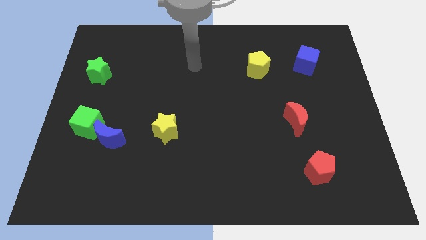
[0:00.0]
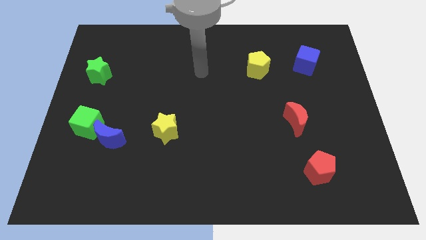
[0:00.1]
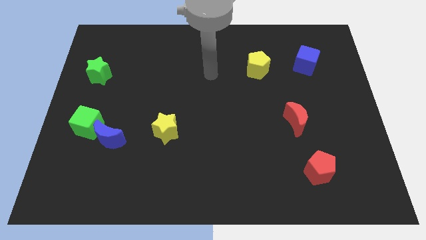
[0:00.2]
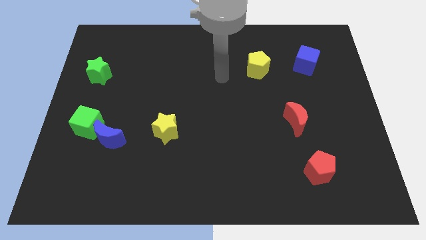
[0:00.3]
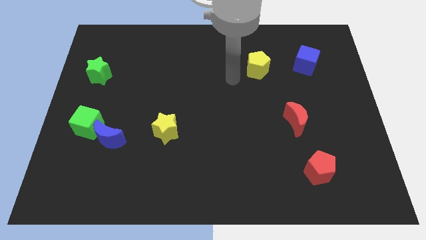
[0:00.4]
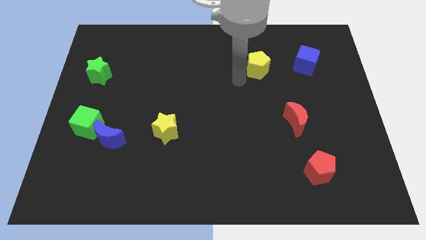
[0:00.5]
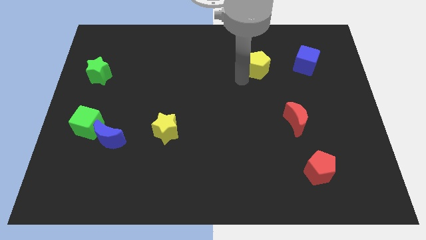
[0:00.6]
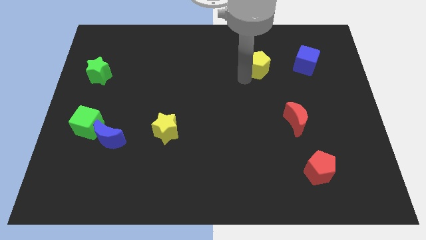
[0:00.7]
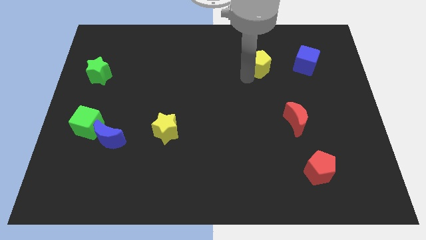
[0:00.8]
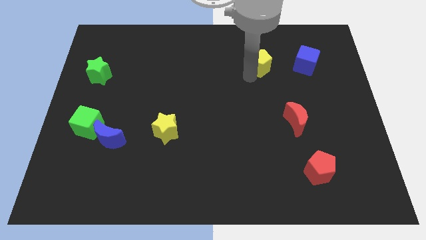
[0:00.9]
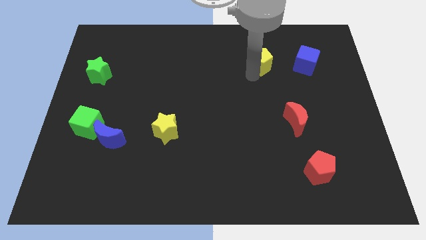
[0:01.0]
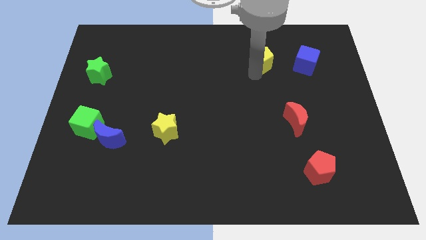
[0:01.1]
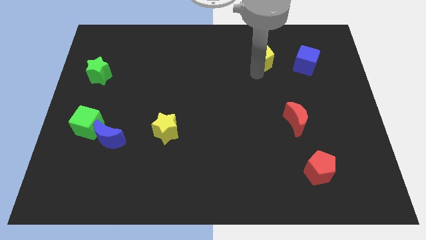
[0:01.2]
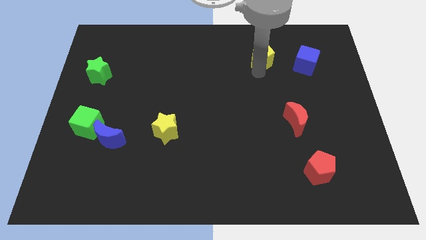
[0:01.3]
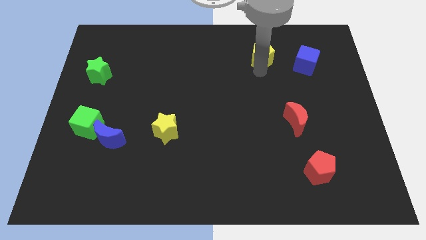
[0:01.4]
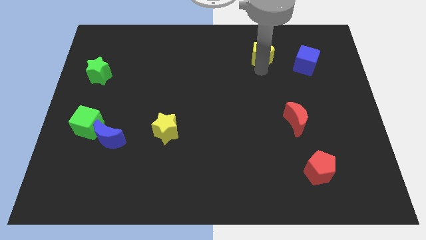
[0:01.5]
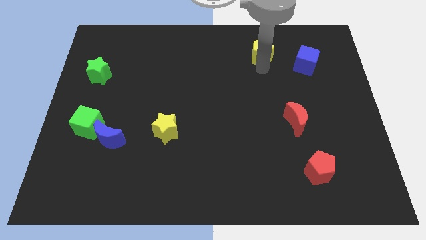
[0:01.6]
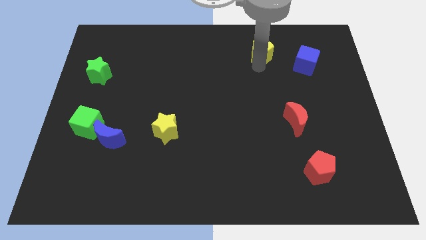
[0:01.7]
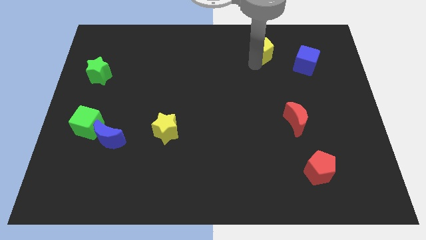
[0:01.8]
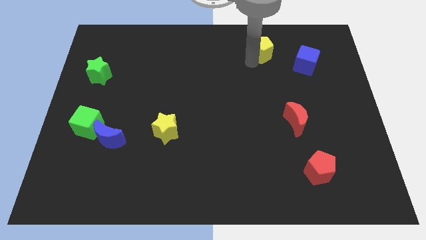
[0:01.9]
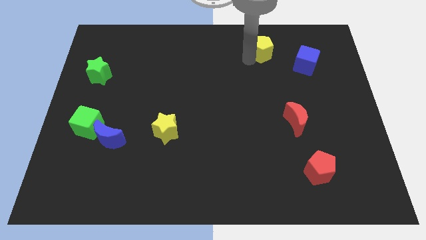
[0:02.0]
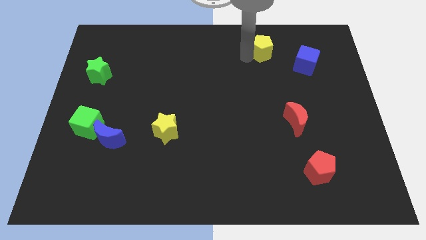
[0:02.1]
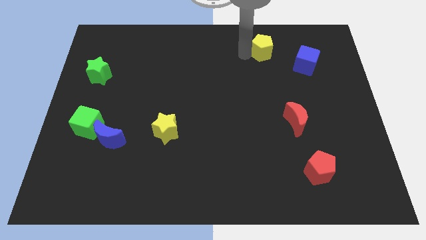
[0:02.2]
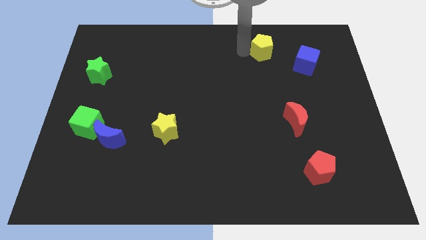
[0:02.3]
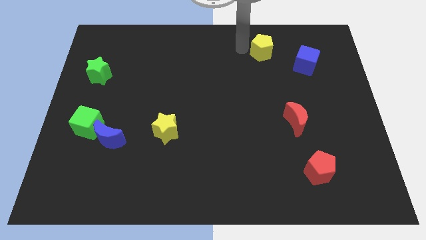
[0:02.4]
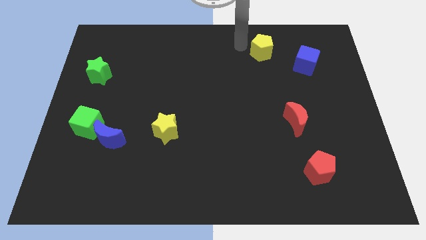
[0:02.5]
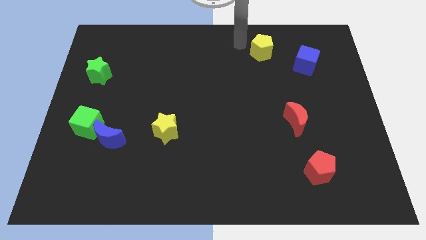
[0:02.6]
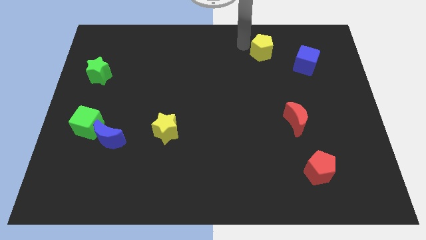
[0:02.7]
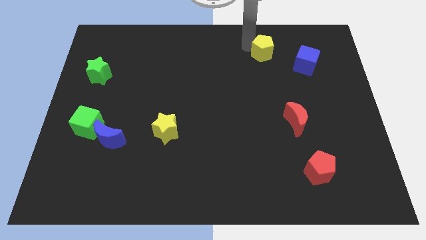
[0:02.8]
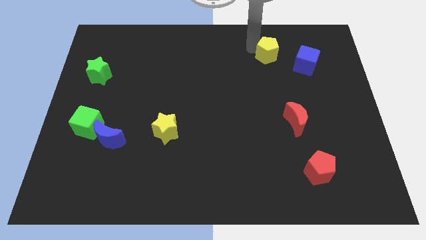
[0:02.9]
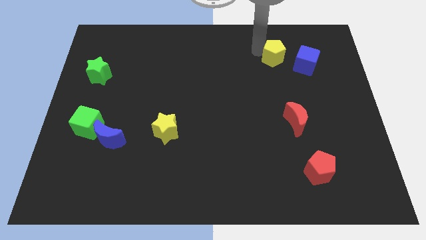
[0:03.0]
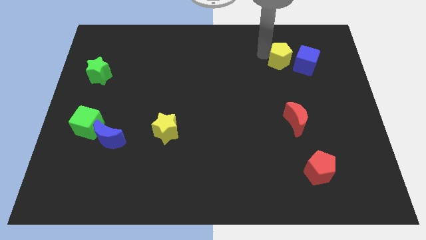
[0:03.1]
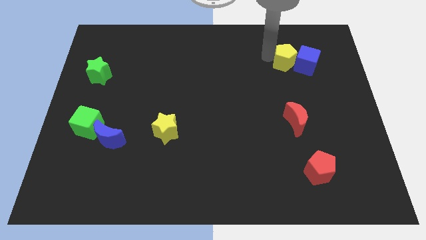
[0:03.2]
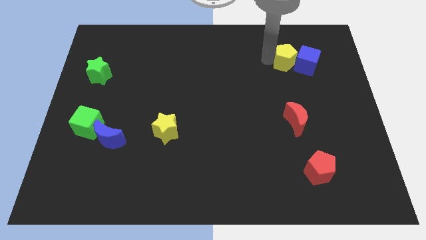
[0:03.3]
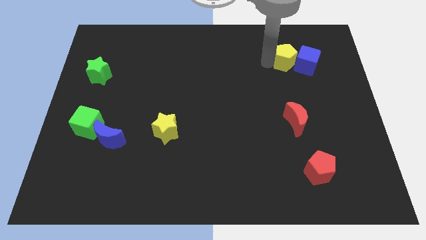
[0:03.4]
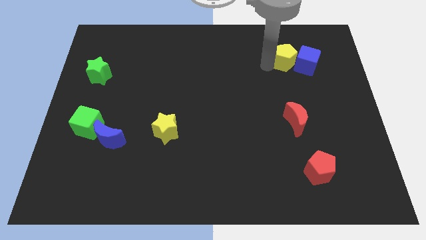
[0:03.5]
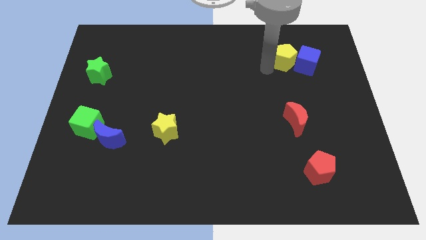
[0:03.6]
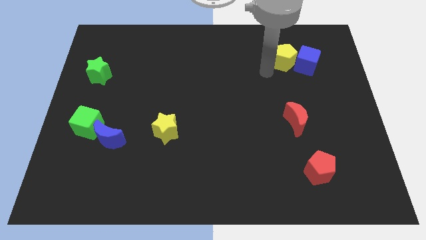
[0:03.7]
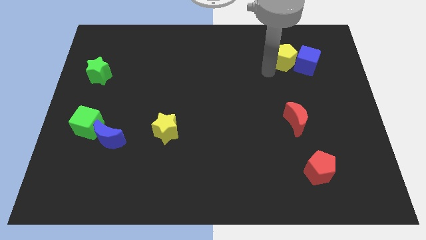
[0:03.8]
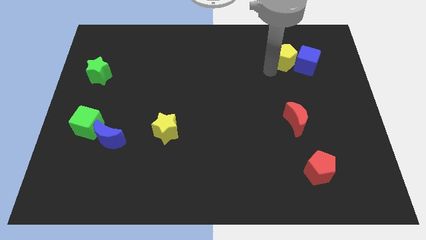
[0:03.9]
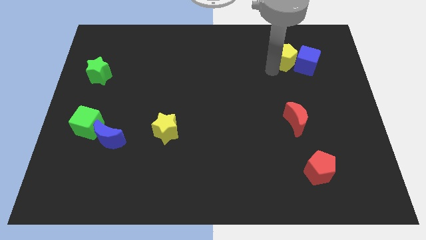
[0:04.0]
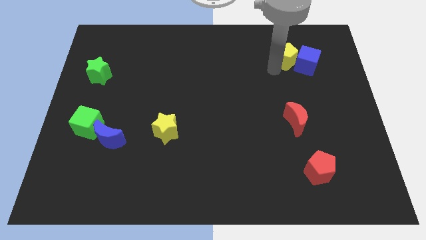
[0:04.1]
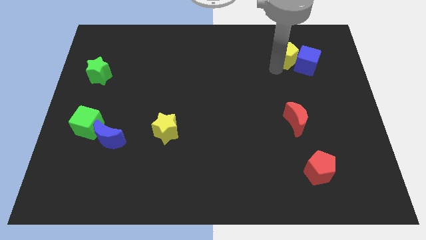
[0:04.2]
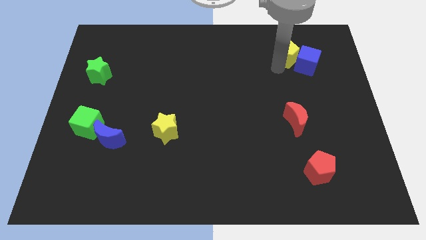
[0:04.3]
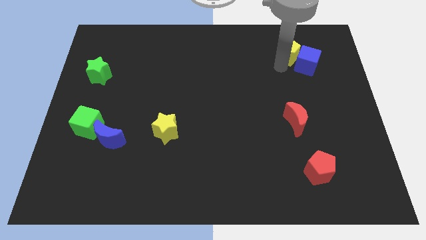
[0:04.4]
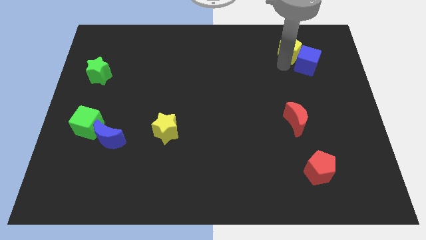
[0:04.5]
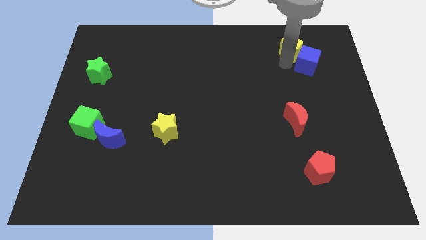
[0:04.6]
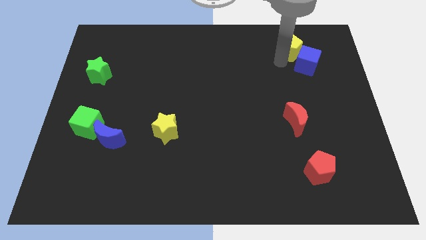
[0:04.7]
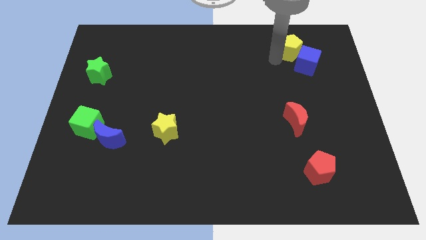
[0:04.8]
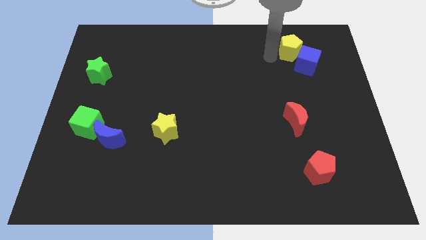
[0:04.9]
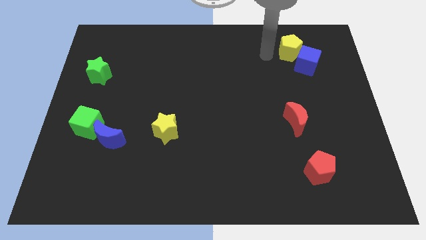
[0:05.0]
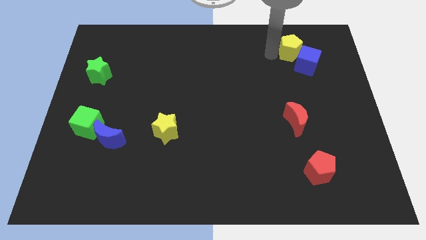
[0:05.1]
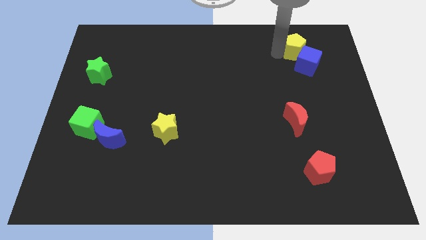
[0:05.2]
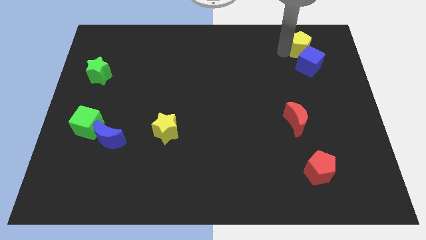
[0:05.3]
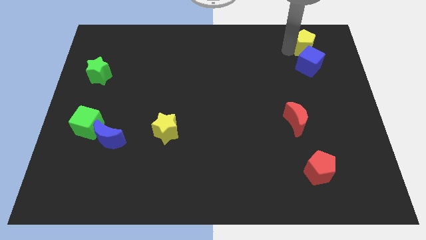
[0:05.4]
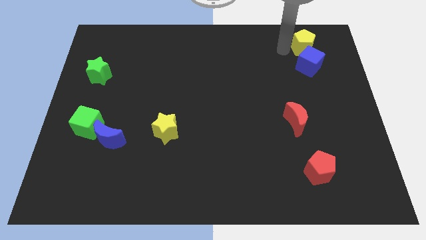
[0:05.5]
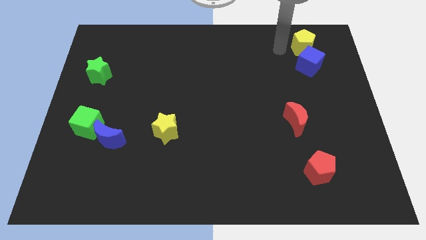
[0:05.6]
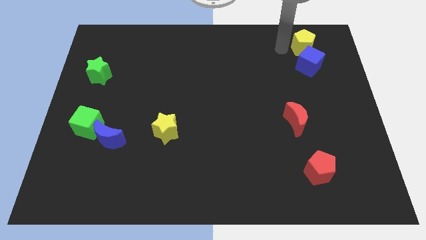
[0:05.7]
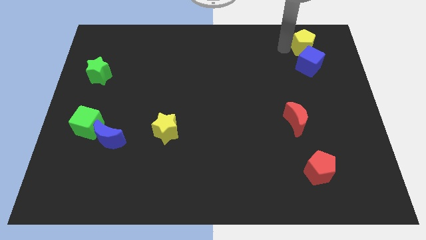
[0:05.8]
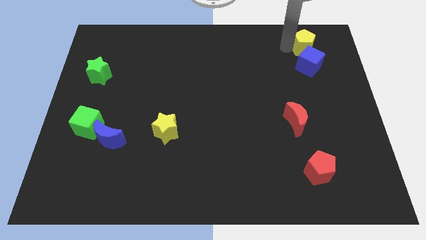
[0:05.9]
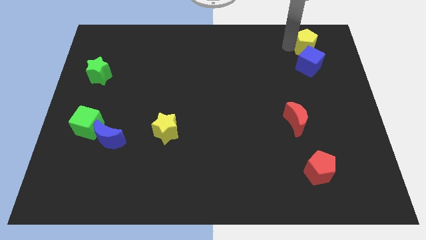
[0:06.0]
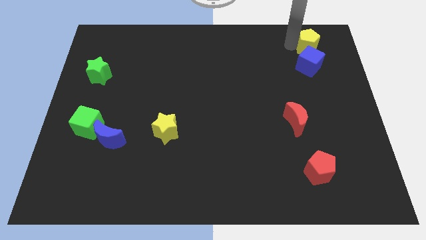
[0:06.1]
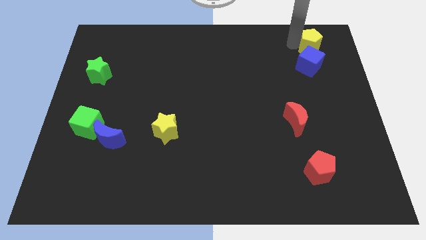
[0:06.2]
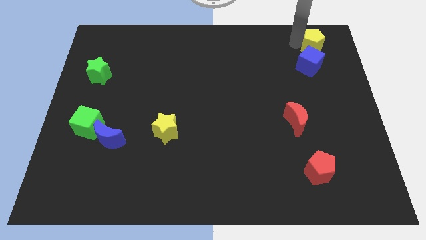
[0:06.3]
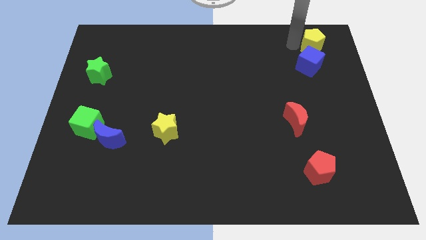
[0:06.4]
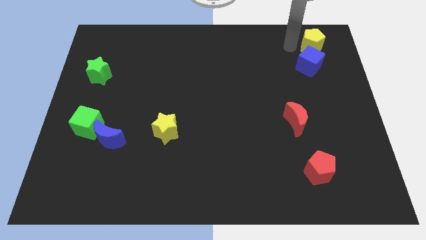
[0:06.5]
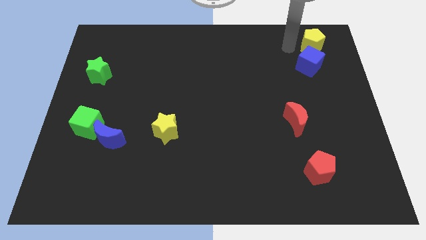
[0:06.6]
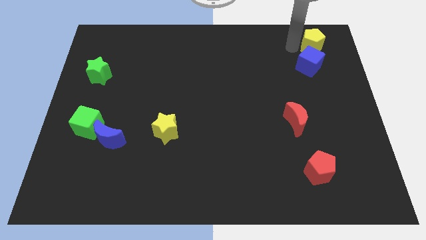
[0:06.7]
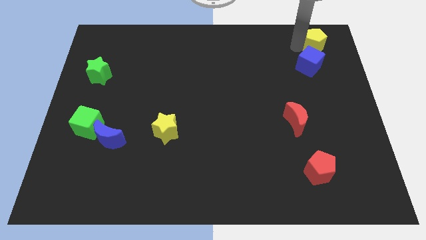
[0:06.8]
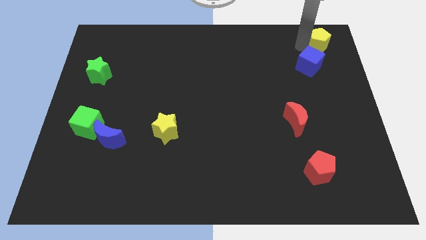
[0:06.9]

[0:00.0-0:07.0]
slide the yellow pentagon to the upper right corner
